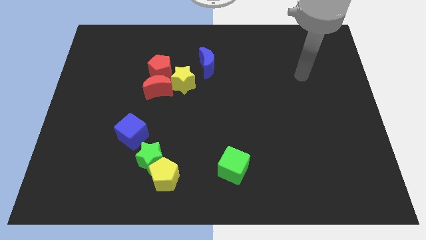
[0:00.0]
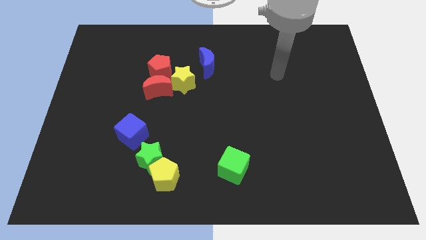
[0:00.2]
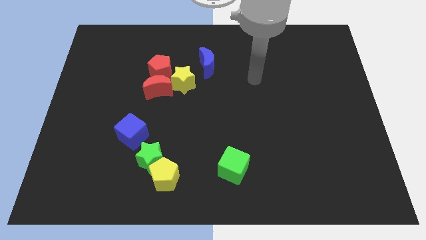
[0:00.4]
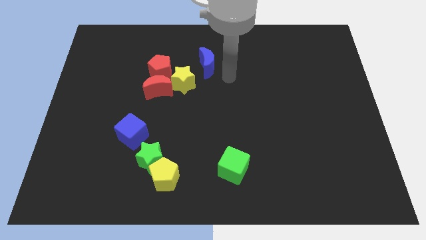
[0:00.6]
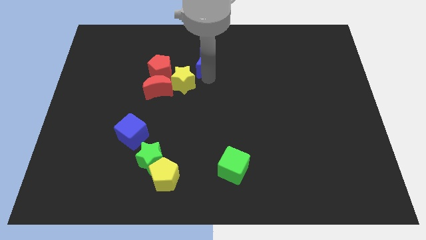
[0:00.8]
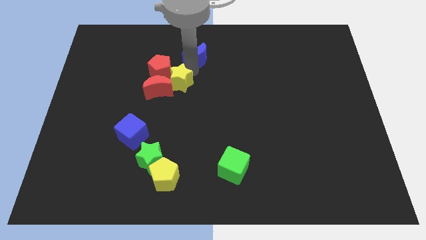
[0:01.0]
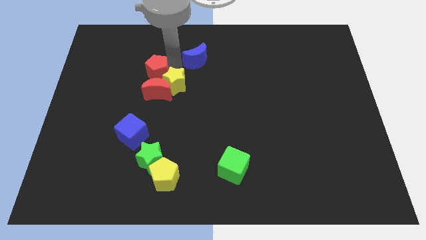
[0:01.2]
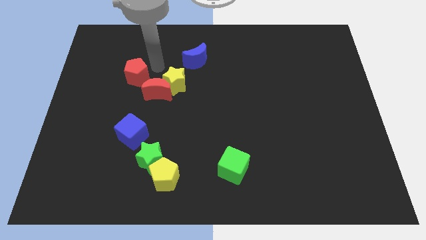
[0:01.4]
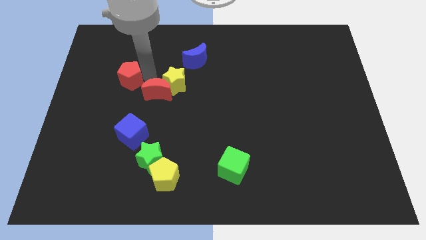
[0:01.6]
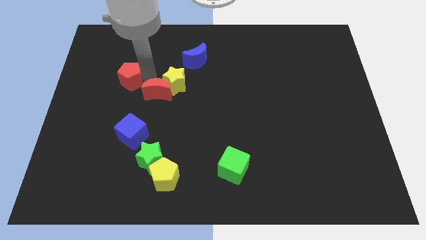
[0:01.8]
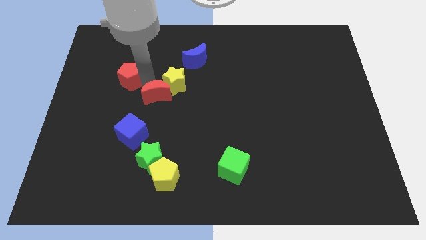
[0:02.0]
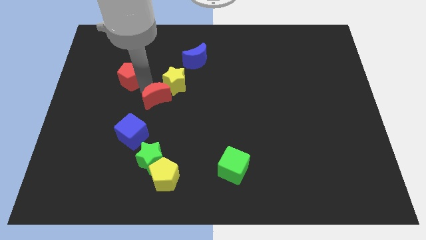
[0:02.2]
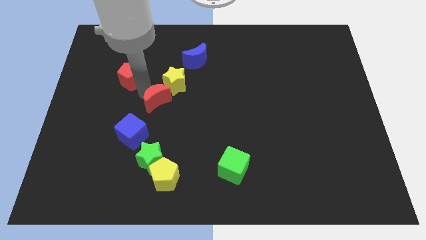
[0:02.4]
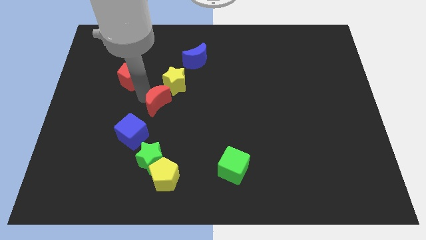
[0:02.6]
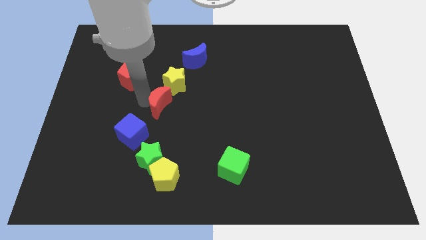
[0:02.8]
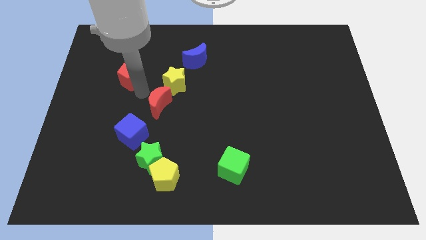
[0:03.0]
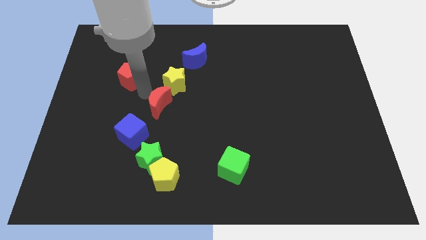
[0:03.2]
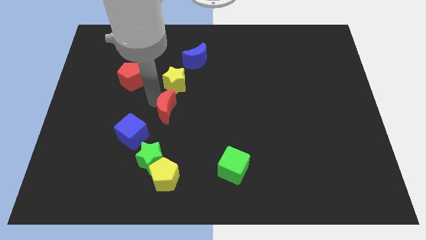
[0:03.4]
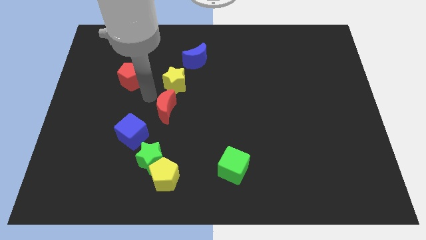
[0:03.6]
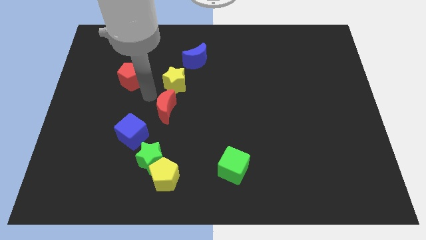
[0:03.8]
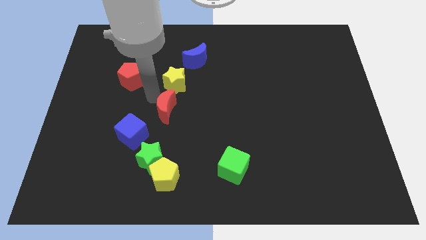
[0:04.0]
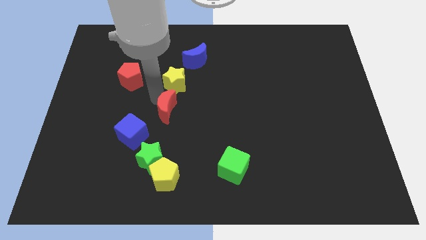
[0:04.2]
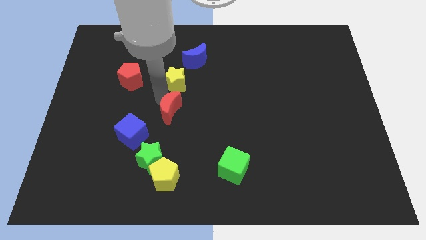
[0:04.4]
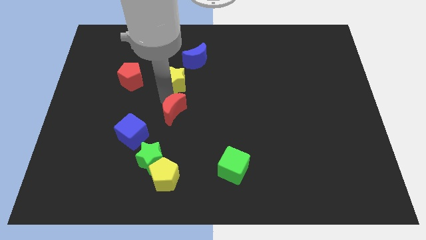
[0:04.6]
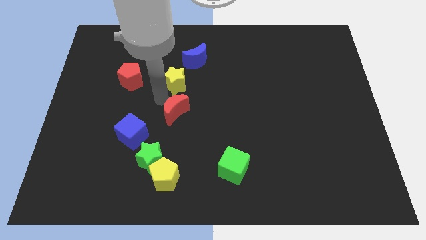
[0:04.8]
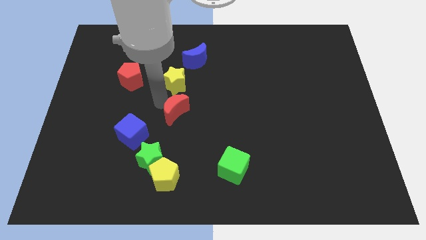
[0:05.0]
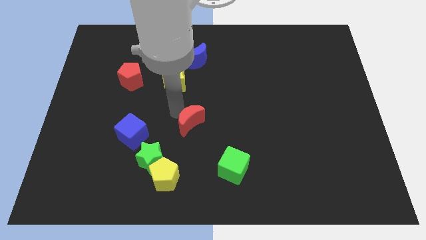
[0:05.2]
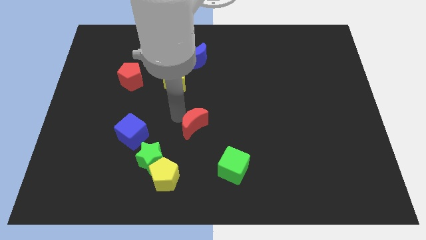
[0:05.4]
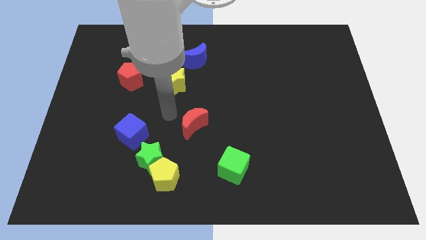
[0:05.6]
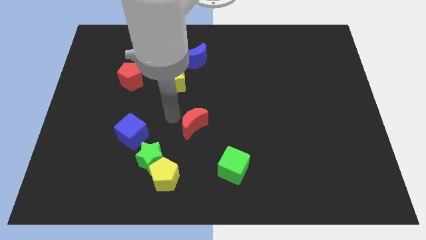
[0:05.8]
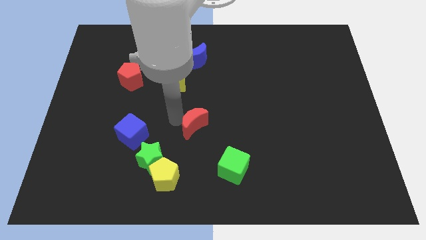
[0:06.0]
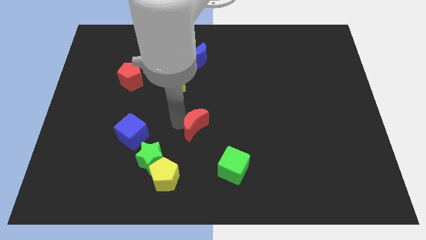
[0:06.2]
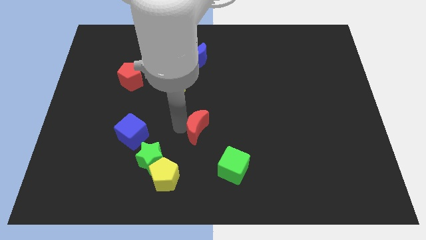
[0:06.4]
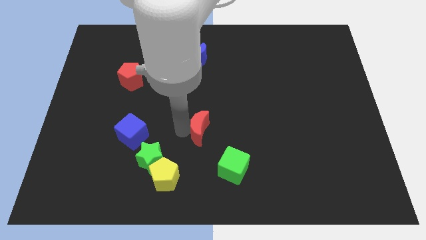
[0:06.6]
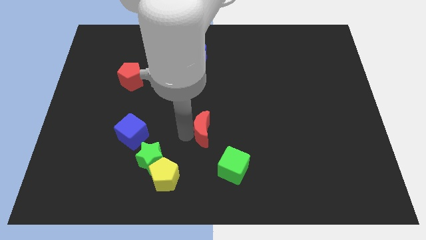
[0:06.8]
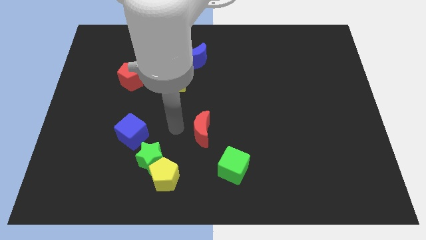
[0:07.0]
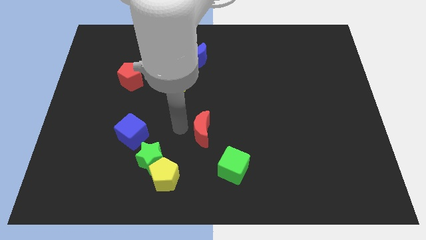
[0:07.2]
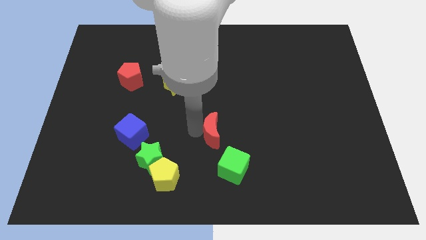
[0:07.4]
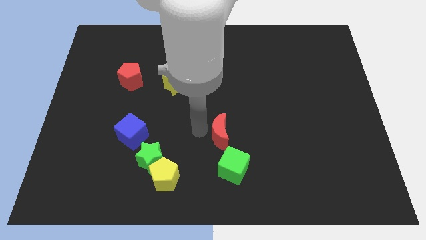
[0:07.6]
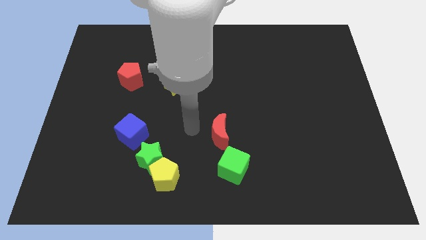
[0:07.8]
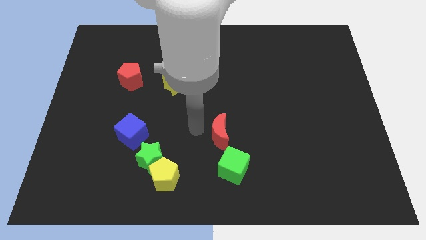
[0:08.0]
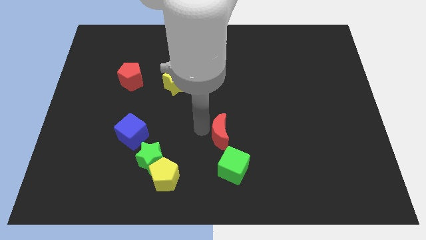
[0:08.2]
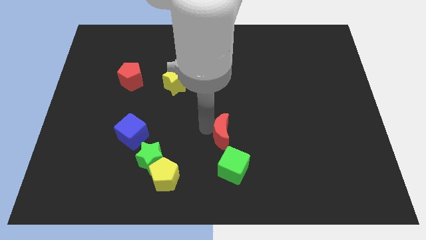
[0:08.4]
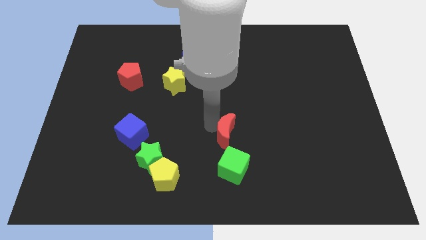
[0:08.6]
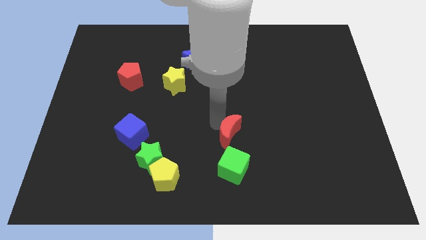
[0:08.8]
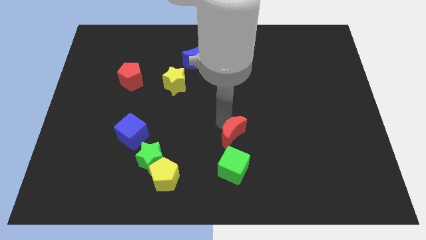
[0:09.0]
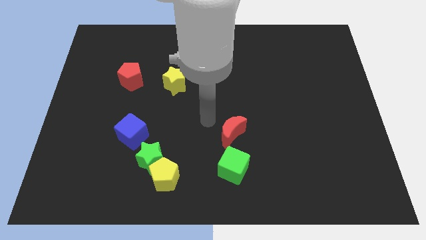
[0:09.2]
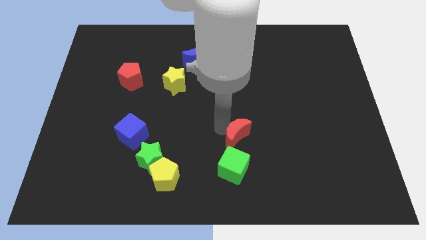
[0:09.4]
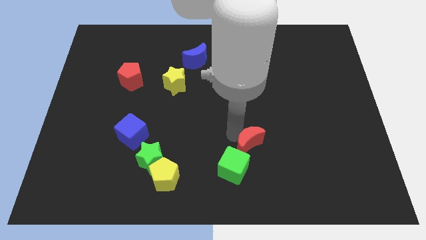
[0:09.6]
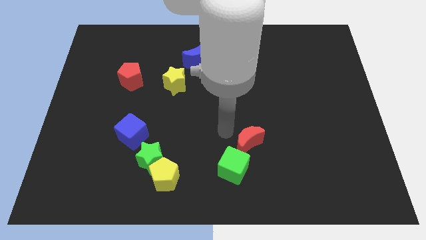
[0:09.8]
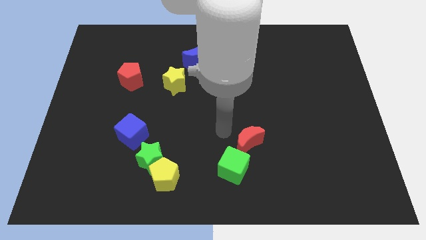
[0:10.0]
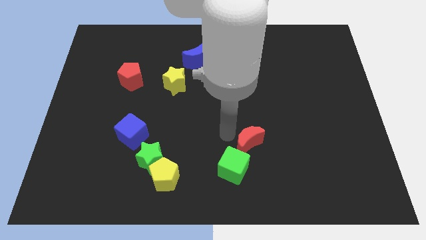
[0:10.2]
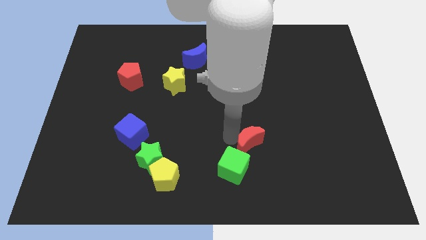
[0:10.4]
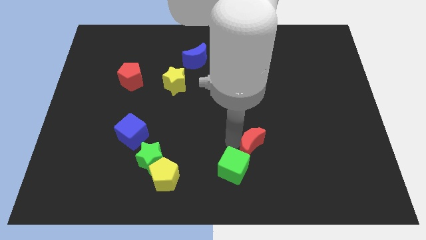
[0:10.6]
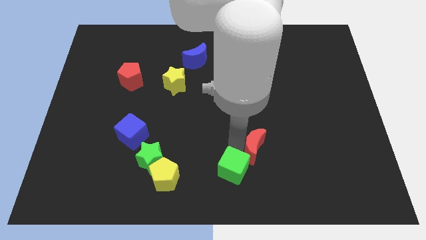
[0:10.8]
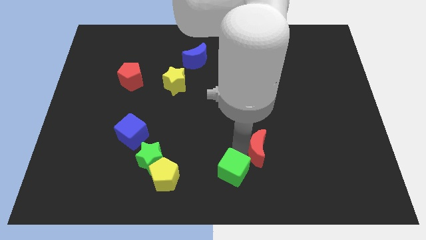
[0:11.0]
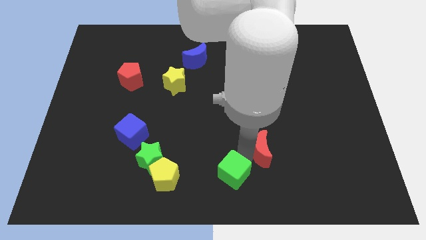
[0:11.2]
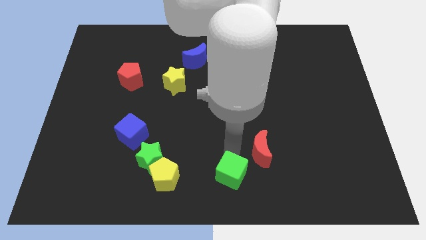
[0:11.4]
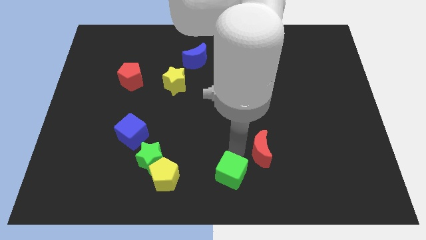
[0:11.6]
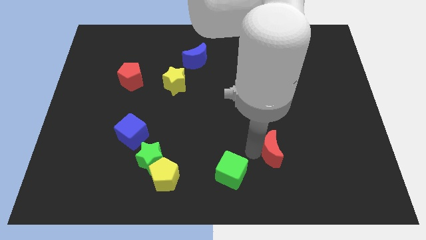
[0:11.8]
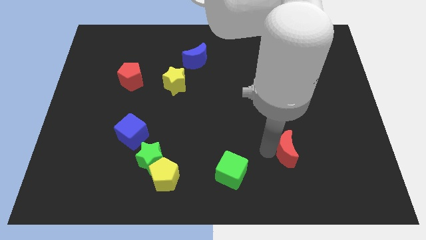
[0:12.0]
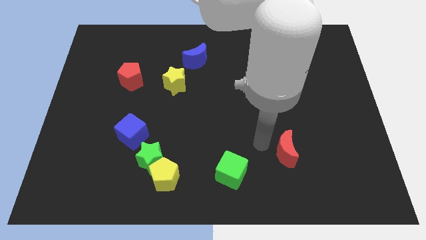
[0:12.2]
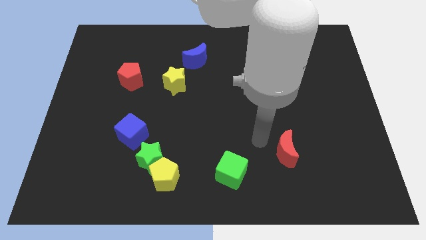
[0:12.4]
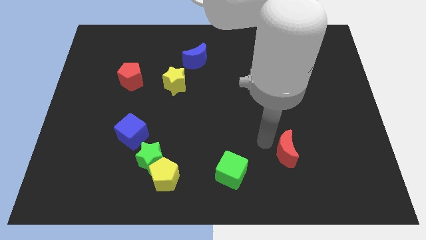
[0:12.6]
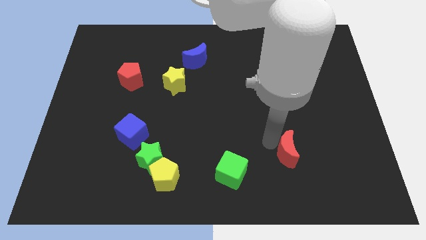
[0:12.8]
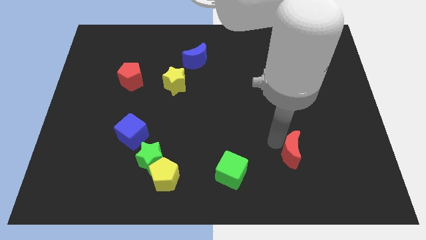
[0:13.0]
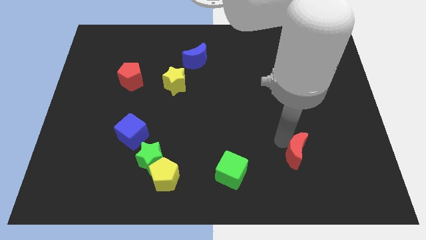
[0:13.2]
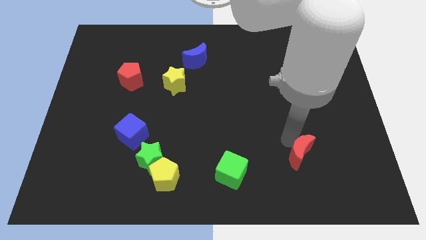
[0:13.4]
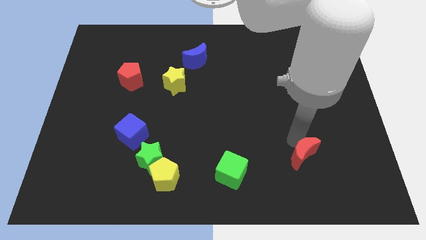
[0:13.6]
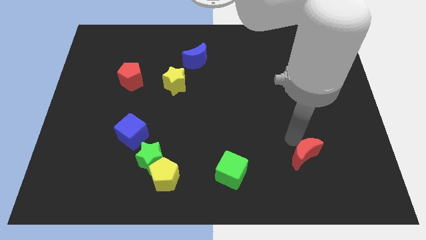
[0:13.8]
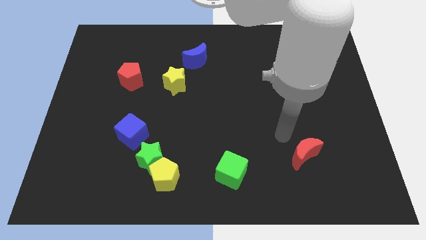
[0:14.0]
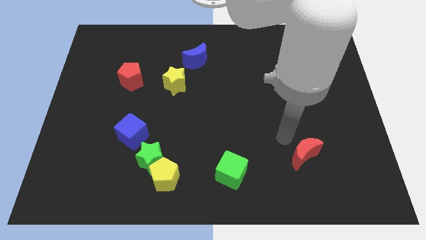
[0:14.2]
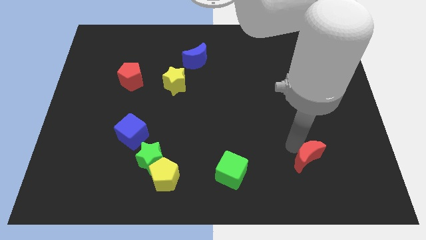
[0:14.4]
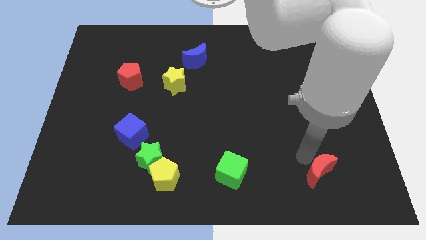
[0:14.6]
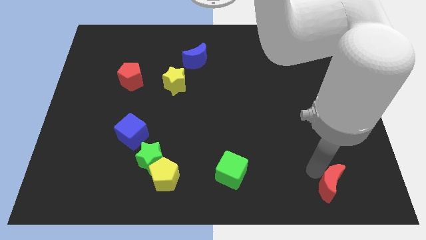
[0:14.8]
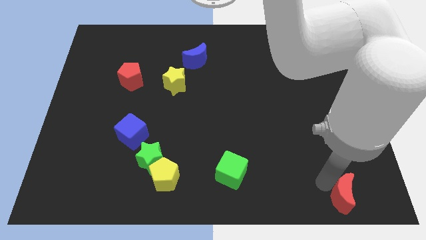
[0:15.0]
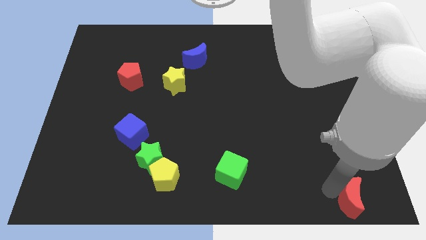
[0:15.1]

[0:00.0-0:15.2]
put the red moon to the bottom right corner
